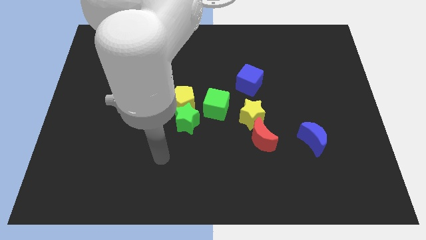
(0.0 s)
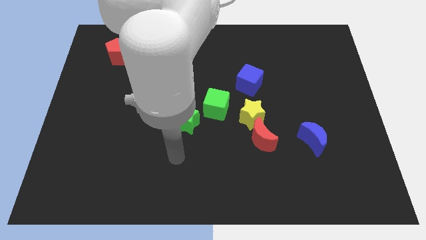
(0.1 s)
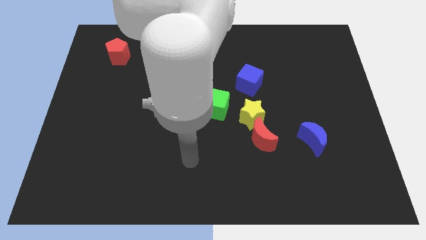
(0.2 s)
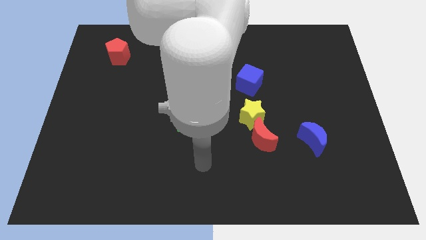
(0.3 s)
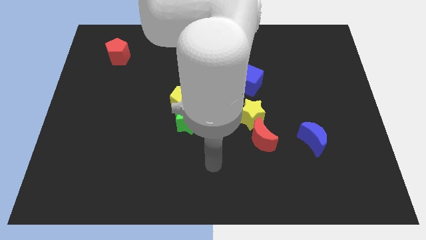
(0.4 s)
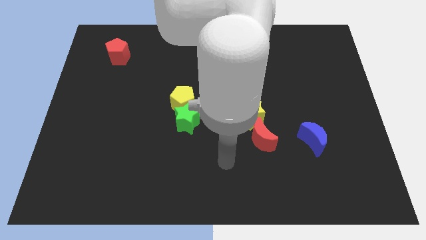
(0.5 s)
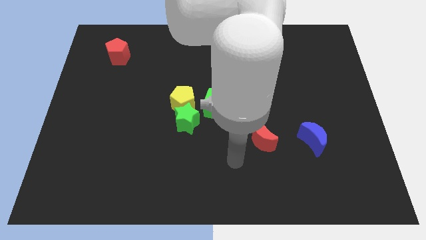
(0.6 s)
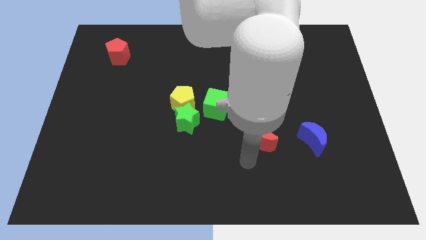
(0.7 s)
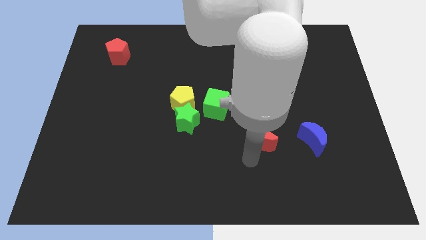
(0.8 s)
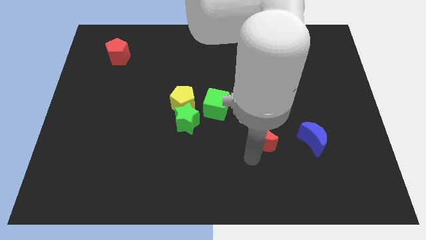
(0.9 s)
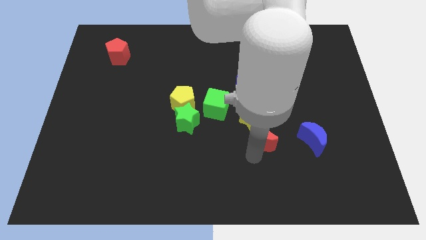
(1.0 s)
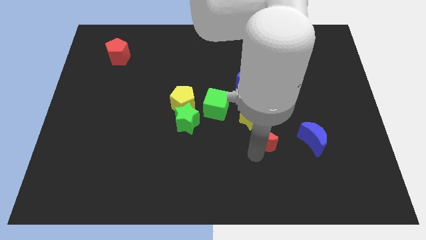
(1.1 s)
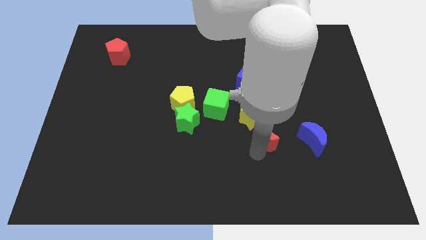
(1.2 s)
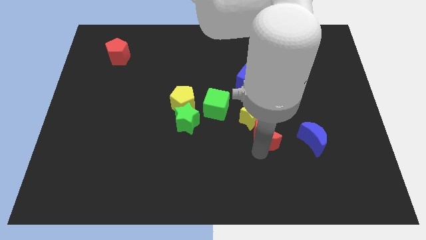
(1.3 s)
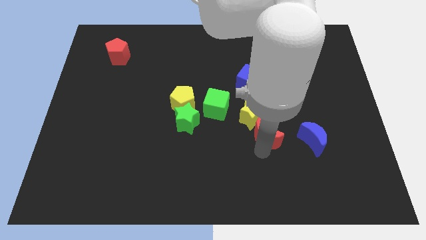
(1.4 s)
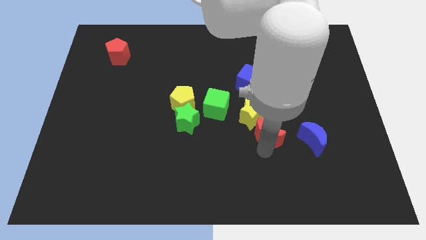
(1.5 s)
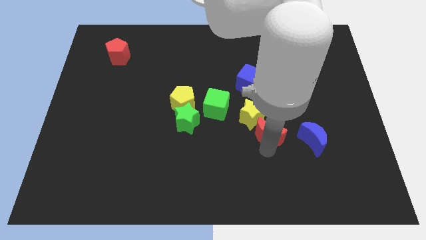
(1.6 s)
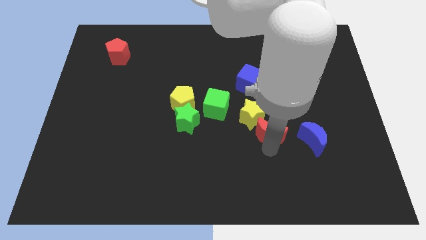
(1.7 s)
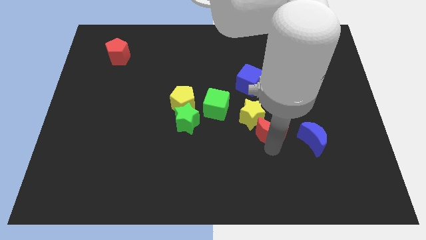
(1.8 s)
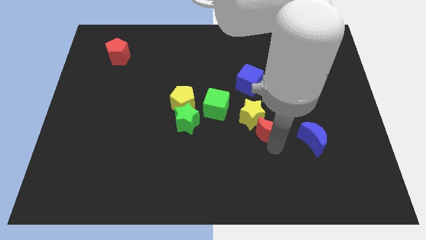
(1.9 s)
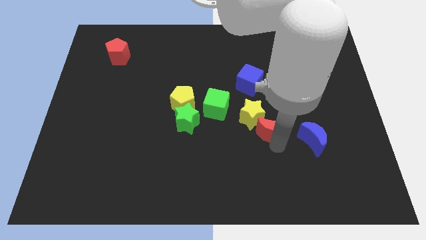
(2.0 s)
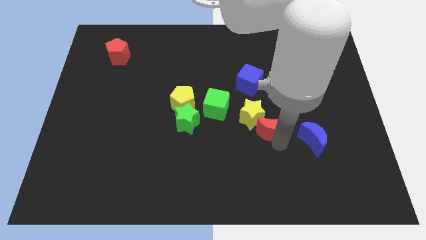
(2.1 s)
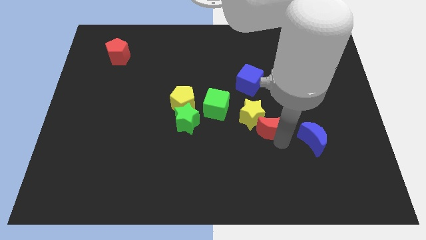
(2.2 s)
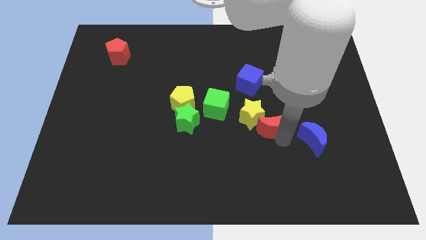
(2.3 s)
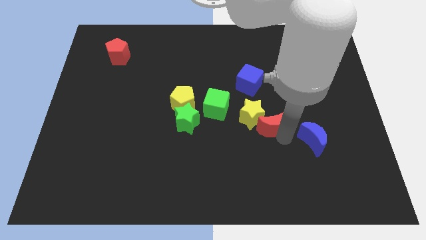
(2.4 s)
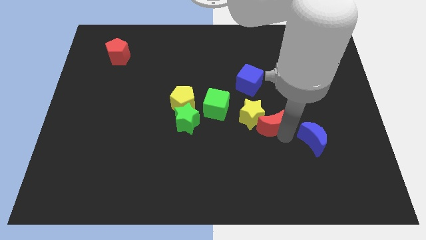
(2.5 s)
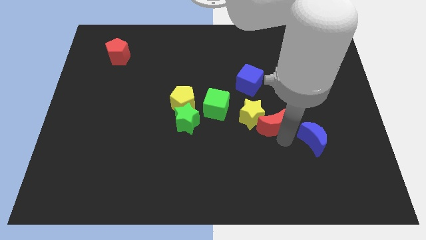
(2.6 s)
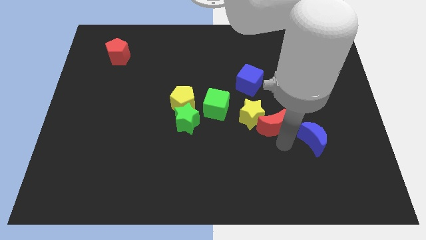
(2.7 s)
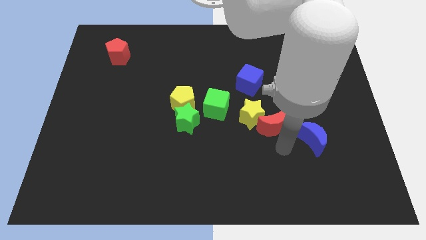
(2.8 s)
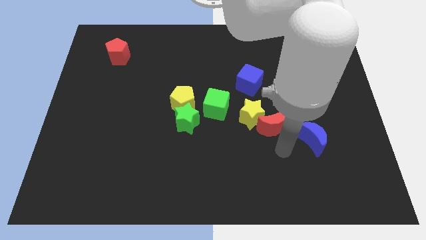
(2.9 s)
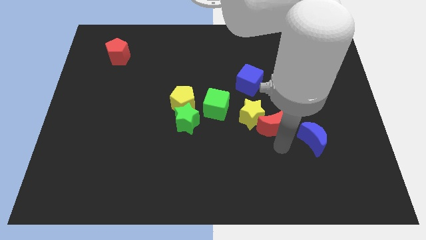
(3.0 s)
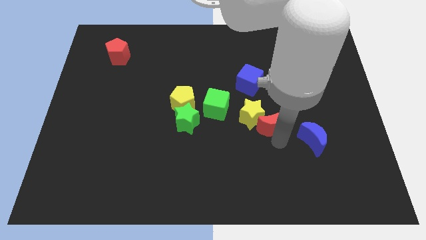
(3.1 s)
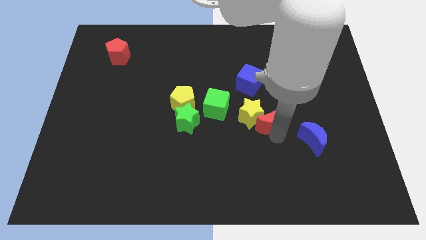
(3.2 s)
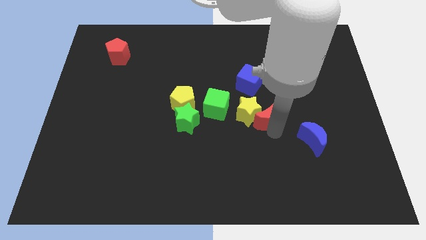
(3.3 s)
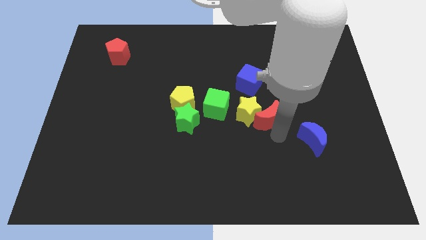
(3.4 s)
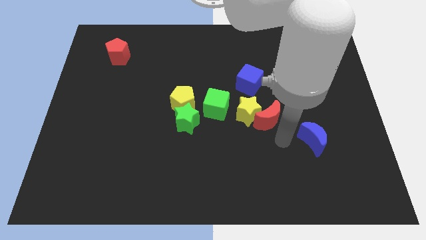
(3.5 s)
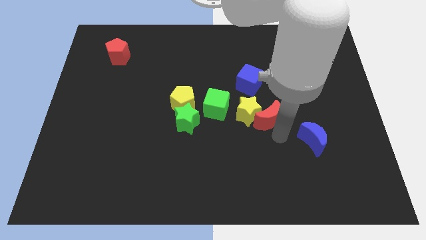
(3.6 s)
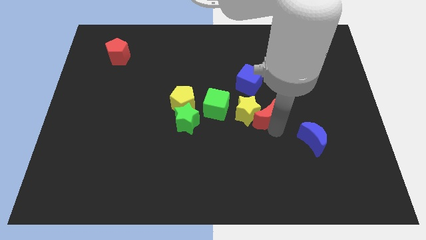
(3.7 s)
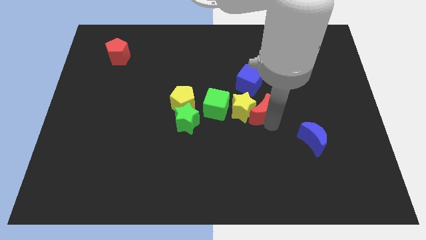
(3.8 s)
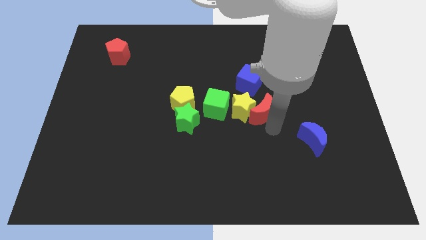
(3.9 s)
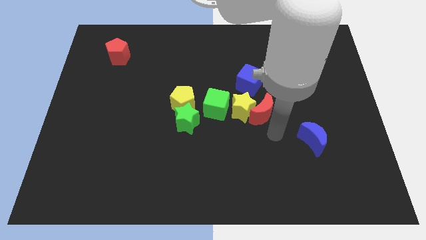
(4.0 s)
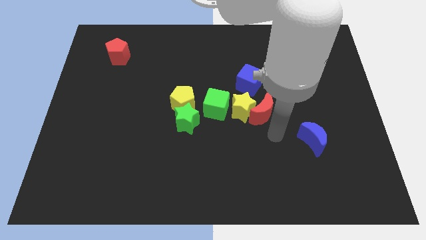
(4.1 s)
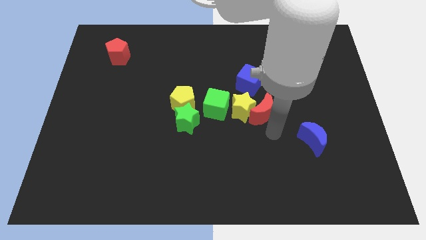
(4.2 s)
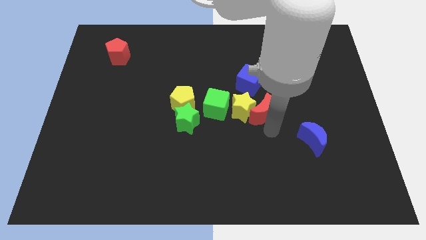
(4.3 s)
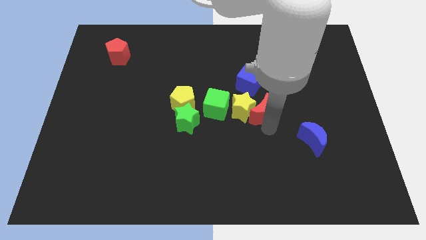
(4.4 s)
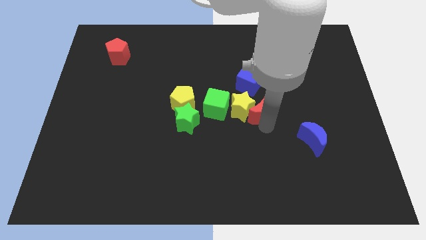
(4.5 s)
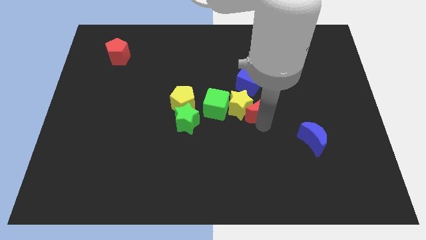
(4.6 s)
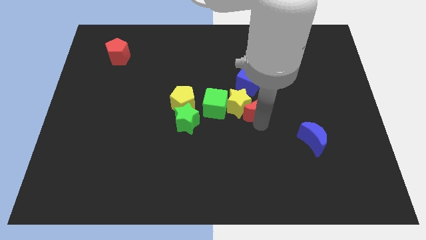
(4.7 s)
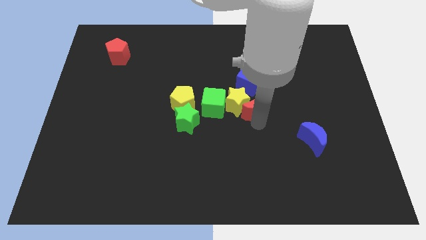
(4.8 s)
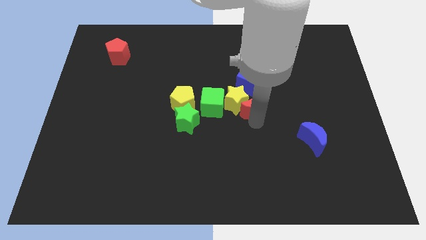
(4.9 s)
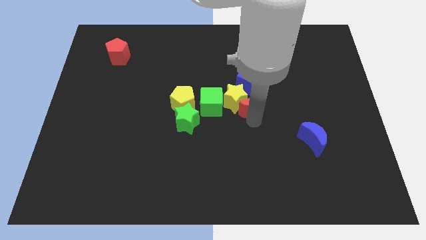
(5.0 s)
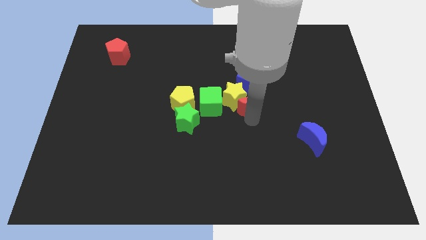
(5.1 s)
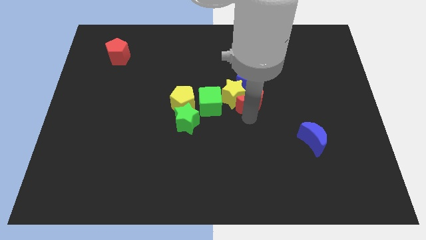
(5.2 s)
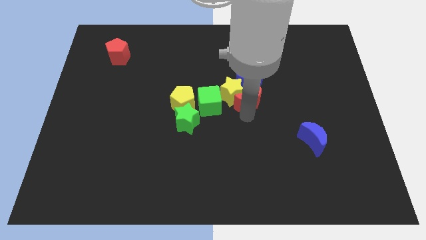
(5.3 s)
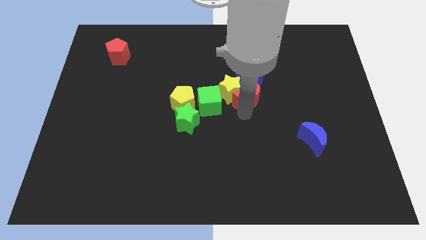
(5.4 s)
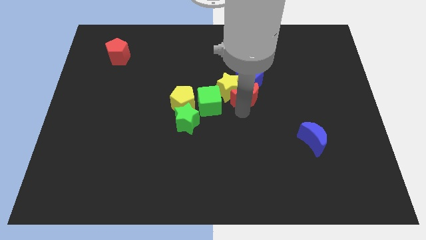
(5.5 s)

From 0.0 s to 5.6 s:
slide the red moon next to the blue cube

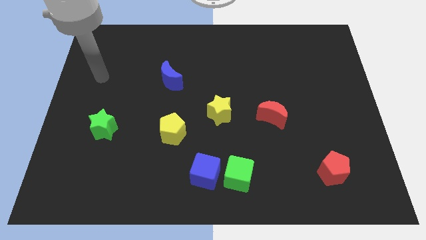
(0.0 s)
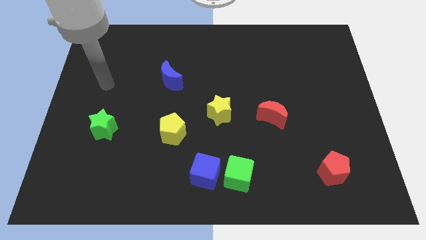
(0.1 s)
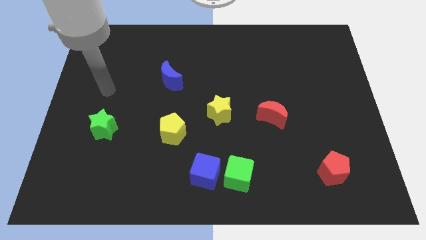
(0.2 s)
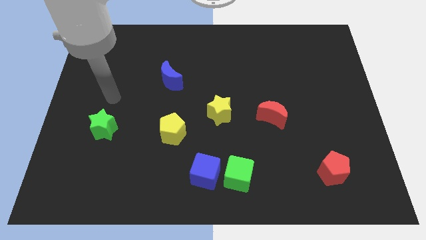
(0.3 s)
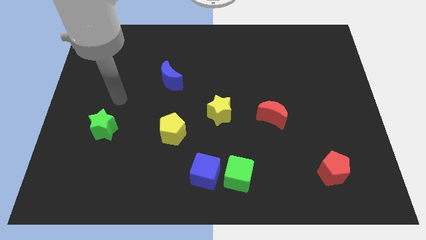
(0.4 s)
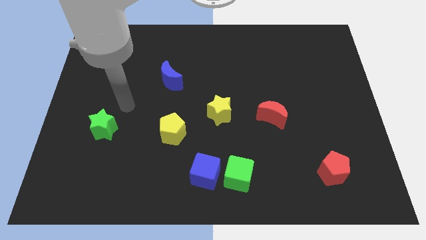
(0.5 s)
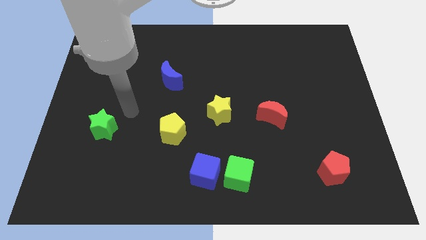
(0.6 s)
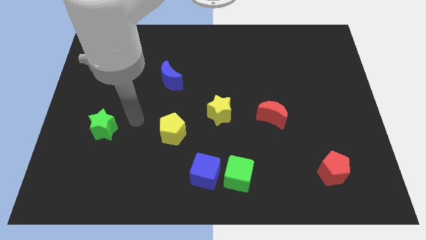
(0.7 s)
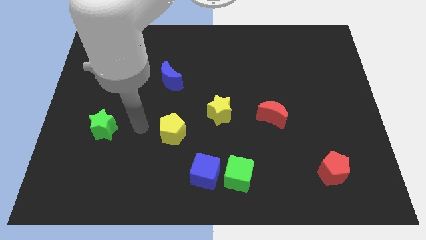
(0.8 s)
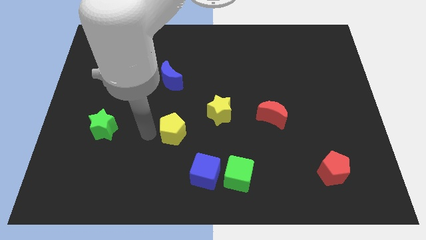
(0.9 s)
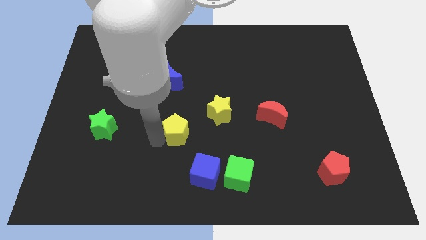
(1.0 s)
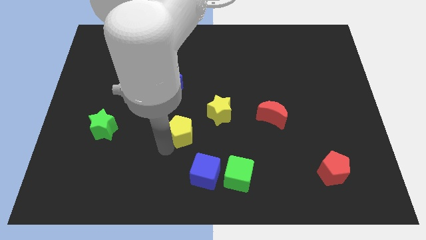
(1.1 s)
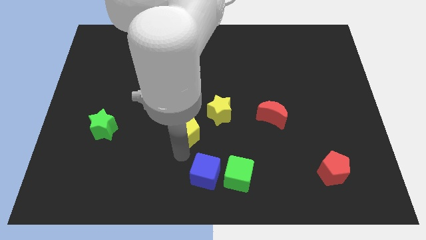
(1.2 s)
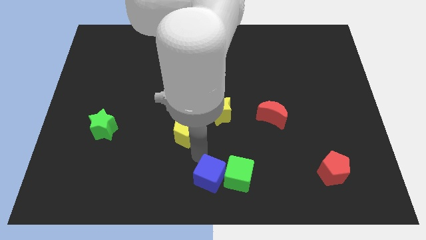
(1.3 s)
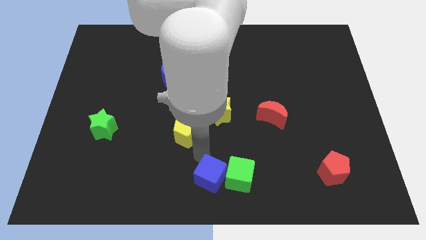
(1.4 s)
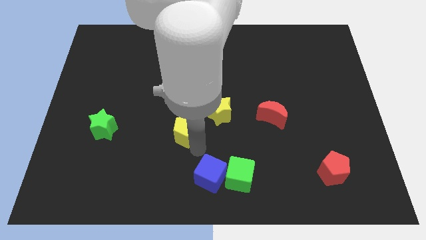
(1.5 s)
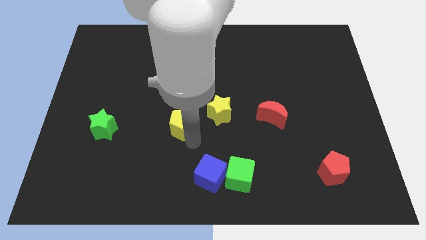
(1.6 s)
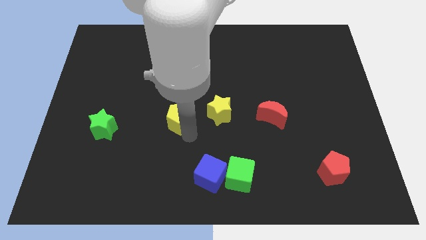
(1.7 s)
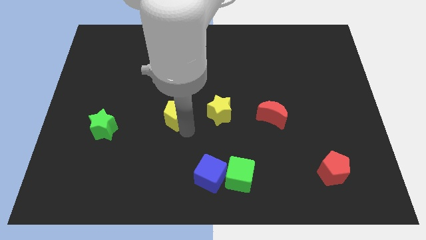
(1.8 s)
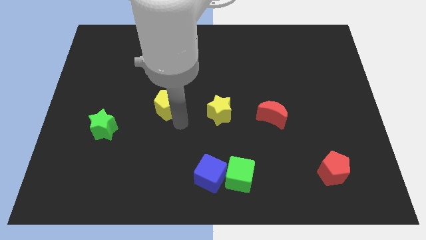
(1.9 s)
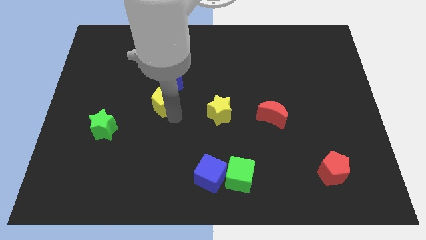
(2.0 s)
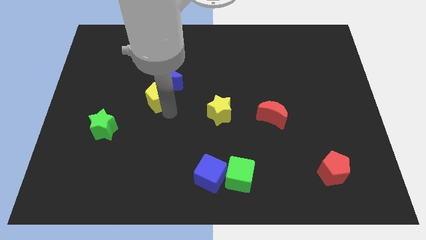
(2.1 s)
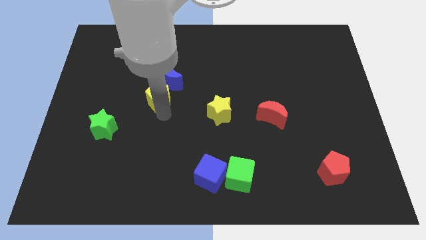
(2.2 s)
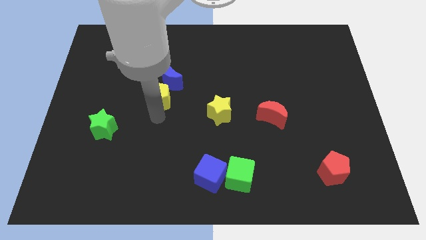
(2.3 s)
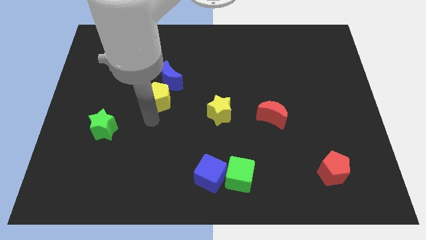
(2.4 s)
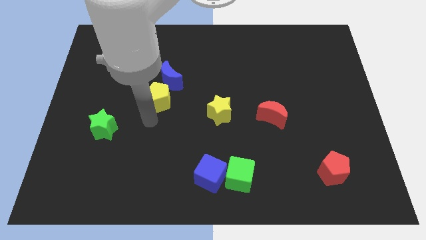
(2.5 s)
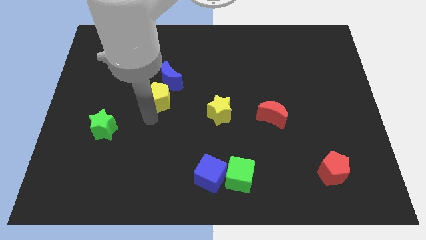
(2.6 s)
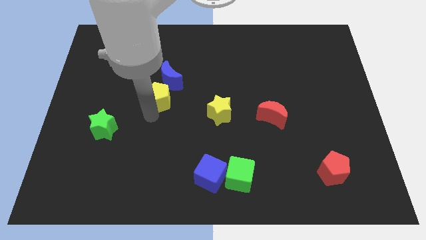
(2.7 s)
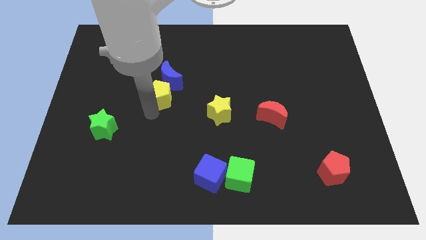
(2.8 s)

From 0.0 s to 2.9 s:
slide the yellow pentagon towards the blue moon
